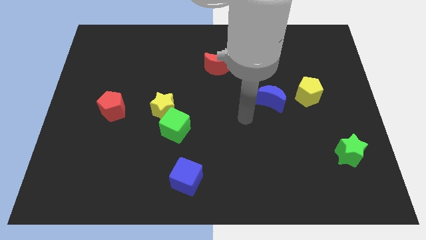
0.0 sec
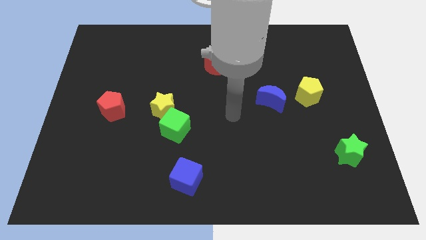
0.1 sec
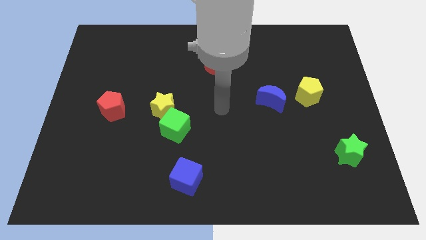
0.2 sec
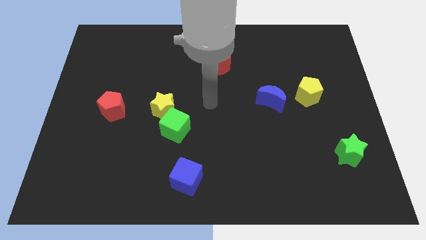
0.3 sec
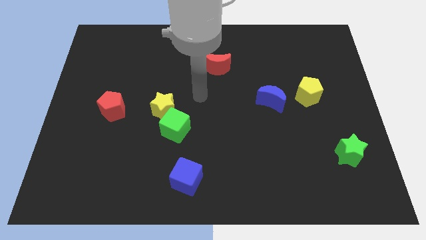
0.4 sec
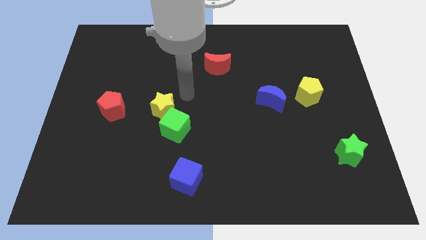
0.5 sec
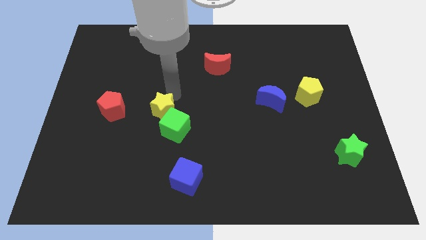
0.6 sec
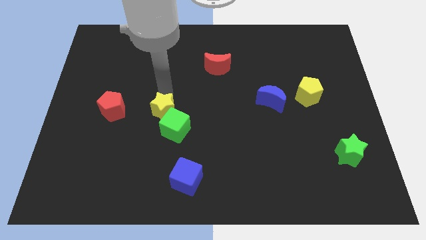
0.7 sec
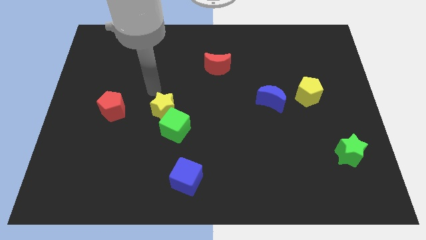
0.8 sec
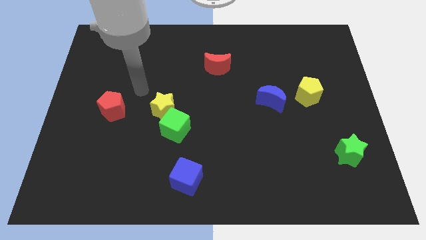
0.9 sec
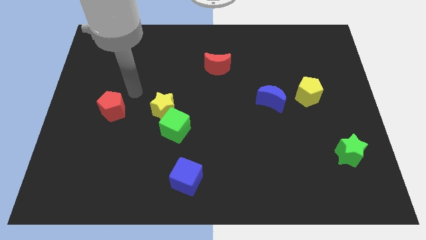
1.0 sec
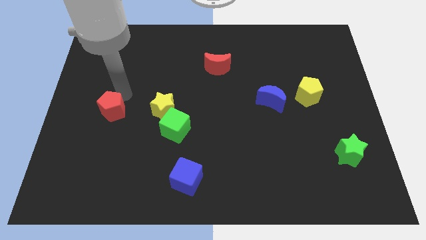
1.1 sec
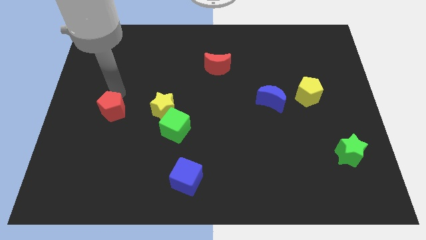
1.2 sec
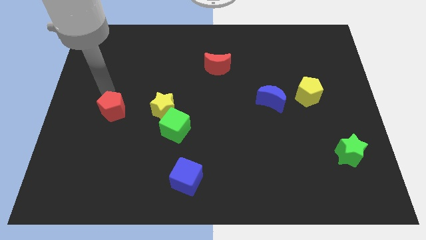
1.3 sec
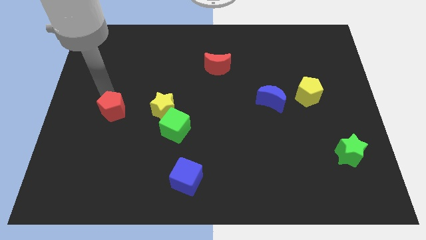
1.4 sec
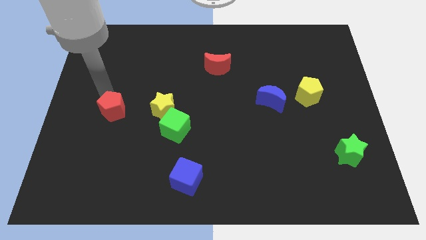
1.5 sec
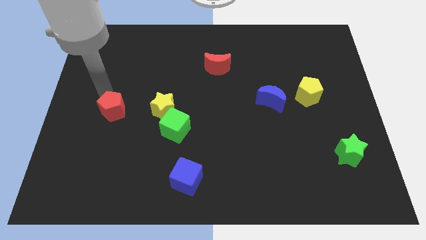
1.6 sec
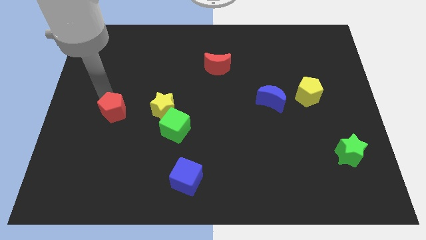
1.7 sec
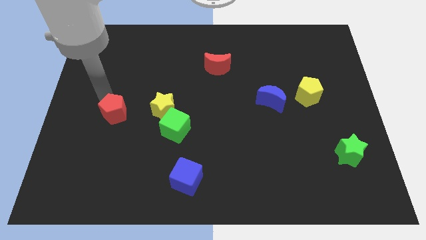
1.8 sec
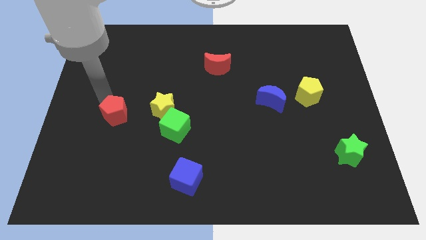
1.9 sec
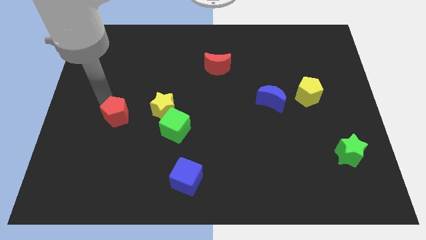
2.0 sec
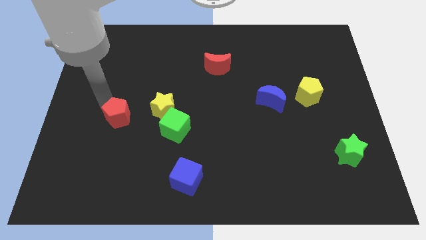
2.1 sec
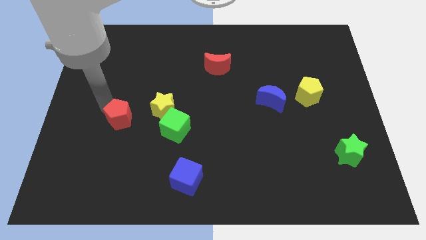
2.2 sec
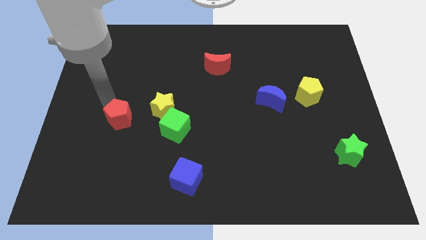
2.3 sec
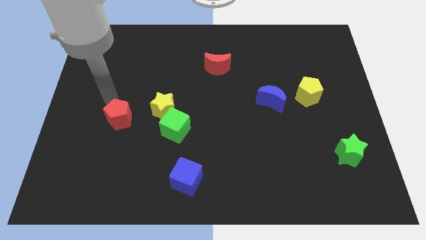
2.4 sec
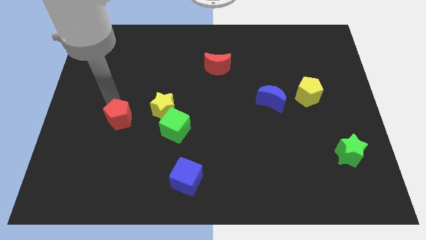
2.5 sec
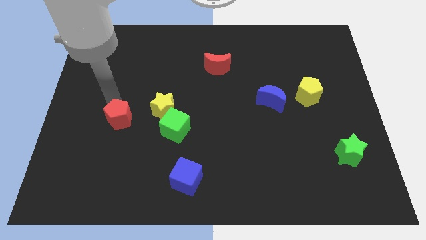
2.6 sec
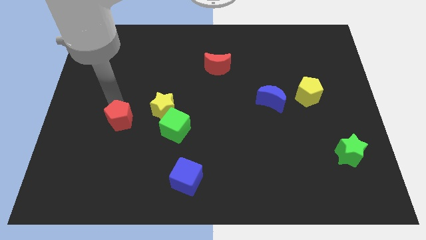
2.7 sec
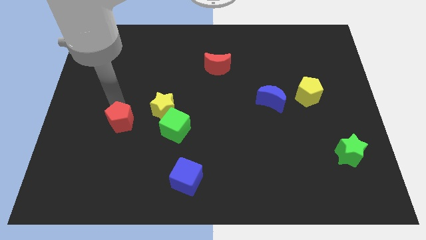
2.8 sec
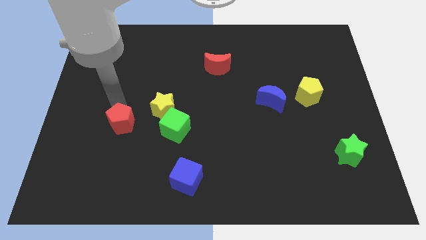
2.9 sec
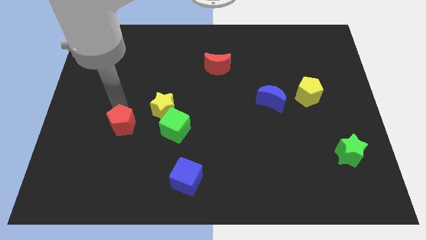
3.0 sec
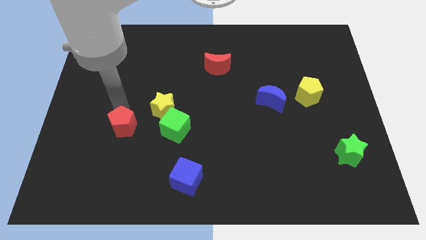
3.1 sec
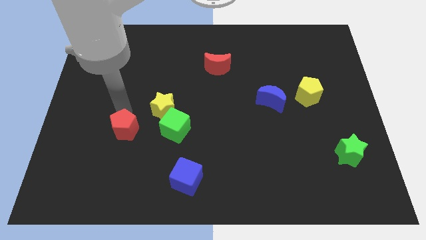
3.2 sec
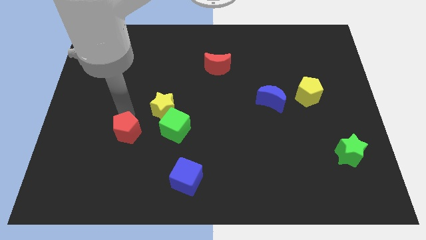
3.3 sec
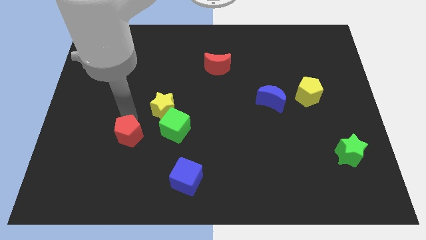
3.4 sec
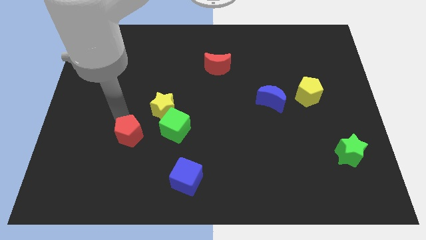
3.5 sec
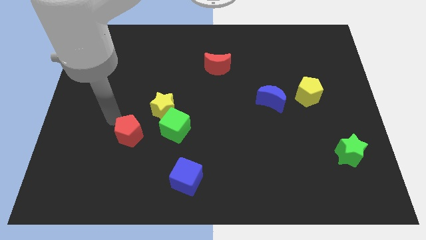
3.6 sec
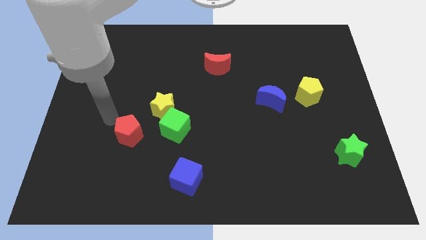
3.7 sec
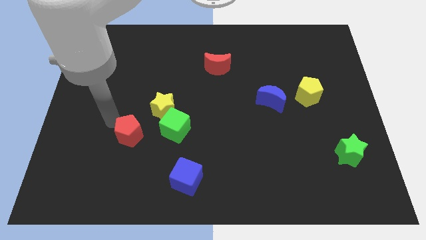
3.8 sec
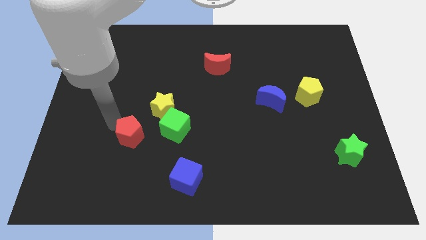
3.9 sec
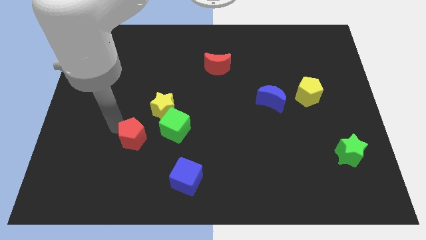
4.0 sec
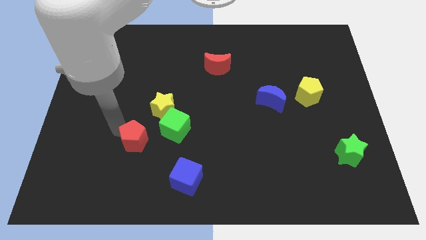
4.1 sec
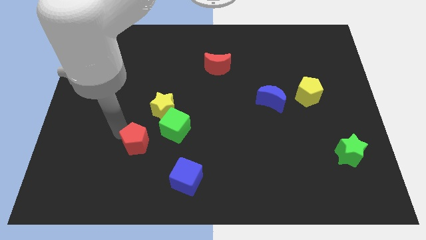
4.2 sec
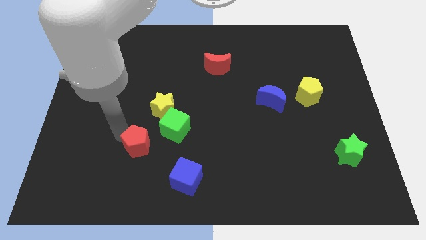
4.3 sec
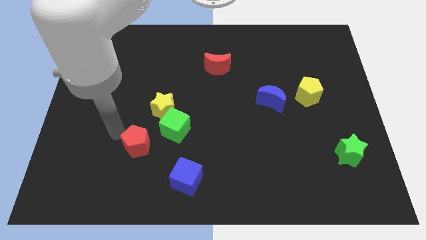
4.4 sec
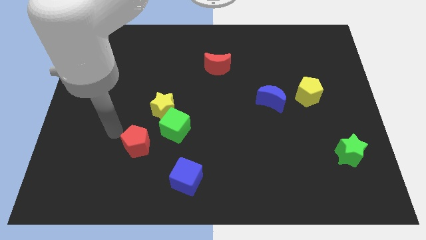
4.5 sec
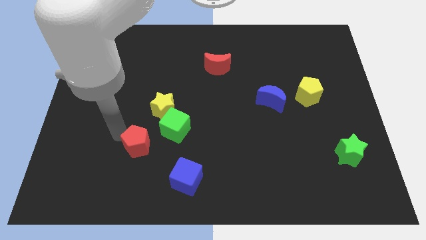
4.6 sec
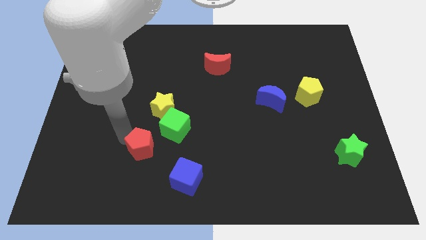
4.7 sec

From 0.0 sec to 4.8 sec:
move the red pentagon diagonally up and to the left of the blue cube

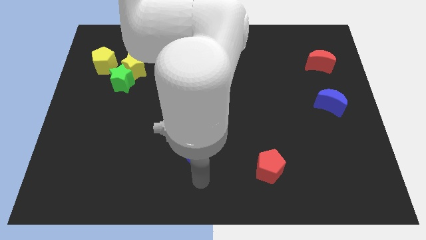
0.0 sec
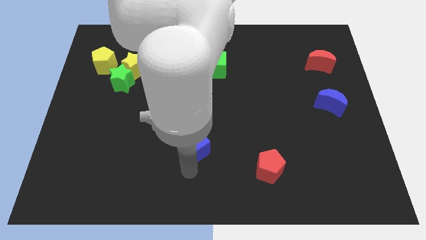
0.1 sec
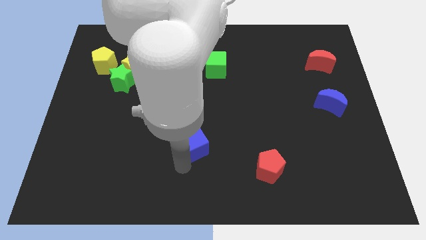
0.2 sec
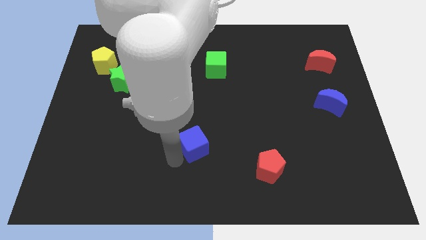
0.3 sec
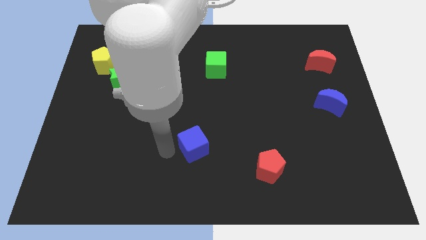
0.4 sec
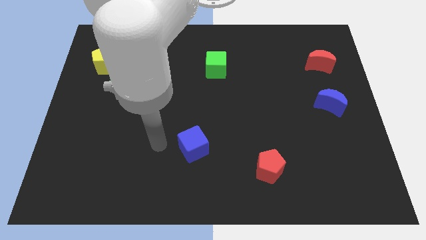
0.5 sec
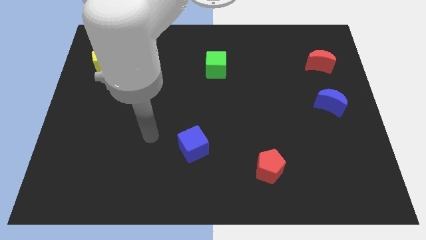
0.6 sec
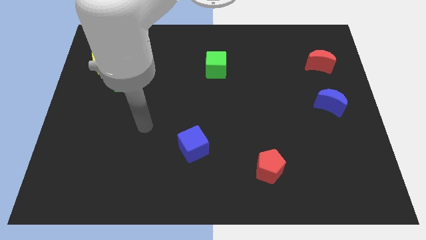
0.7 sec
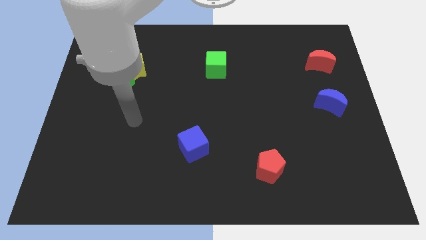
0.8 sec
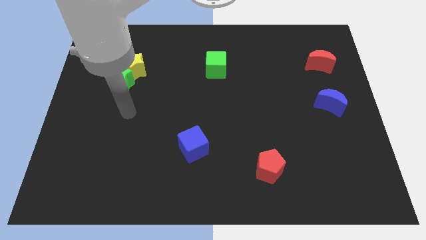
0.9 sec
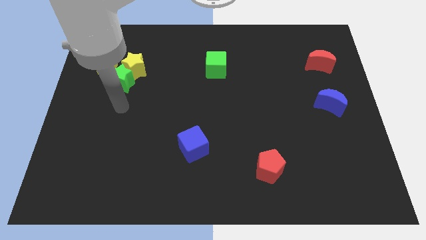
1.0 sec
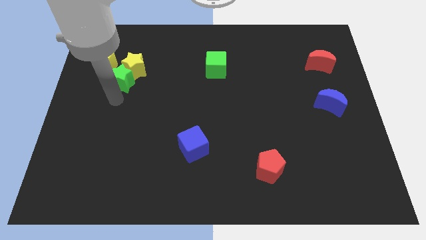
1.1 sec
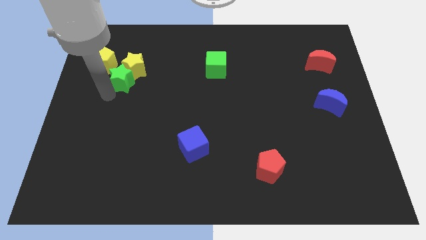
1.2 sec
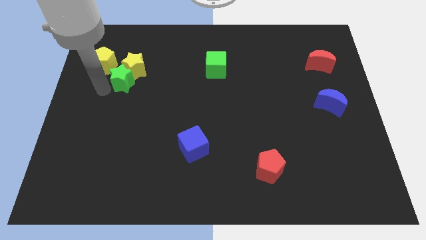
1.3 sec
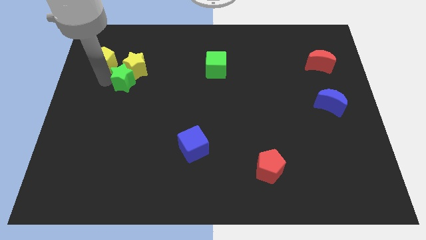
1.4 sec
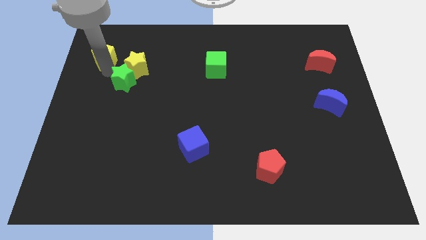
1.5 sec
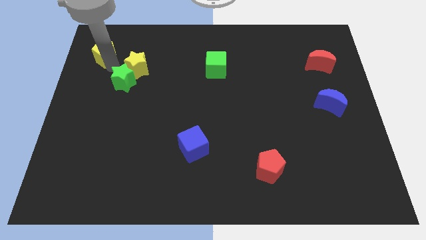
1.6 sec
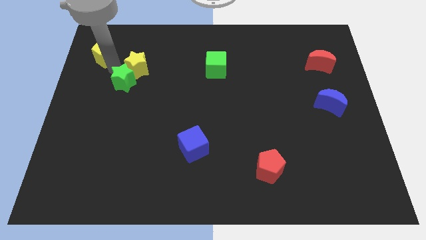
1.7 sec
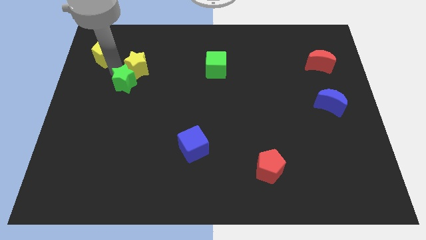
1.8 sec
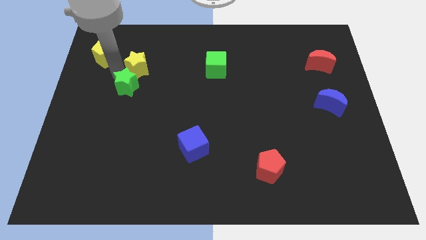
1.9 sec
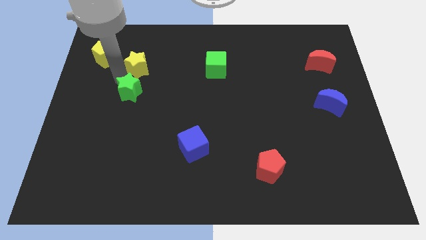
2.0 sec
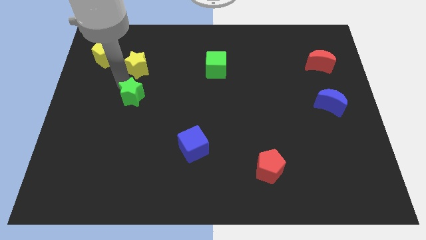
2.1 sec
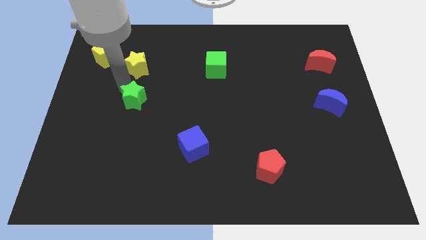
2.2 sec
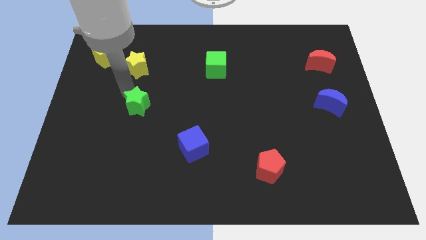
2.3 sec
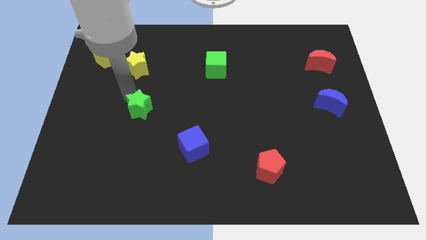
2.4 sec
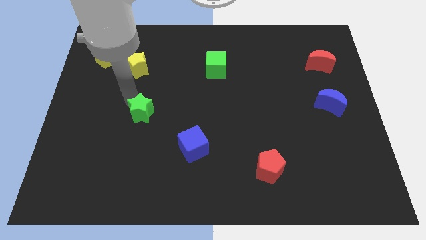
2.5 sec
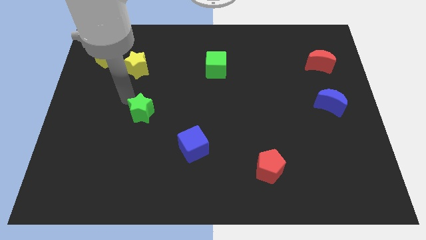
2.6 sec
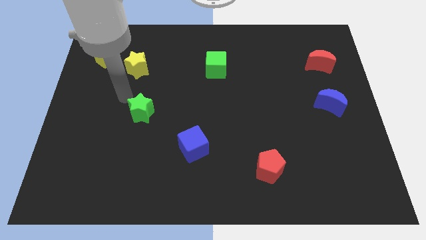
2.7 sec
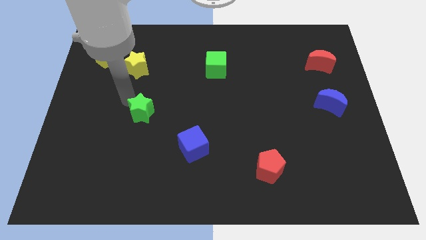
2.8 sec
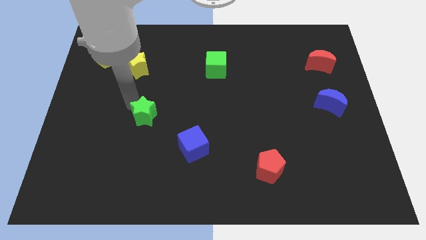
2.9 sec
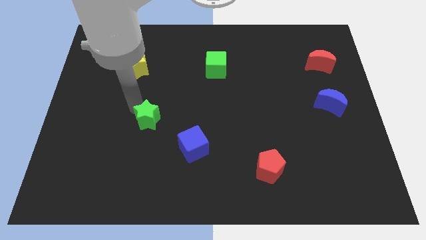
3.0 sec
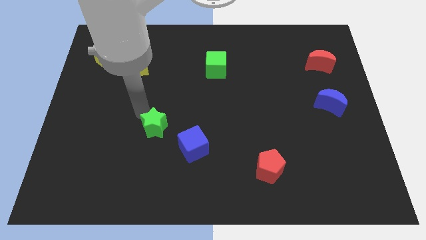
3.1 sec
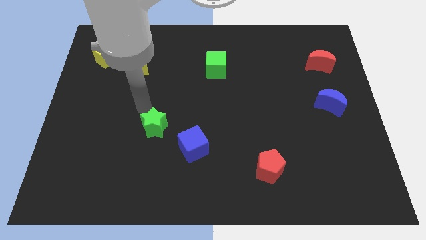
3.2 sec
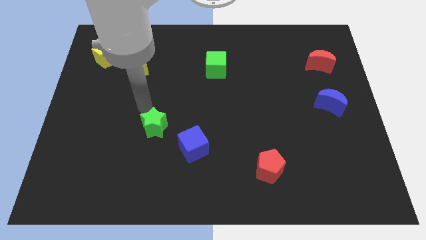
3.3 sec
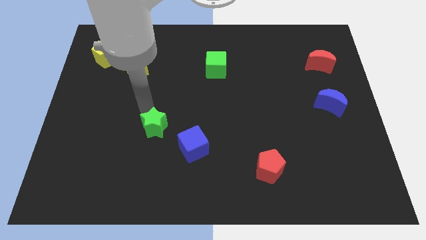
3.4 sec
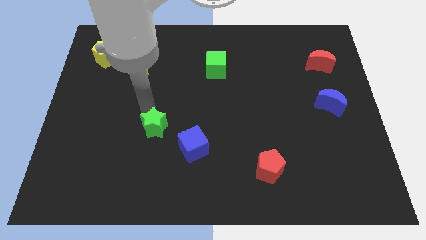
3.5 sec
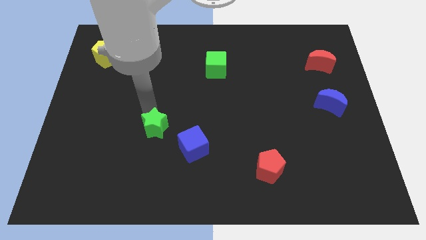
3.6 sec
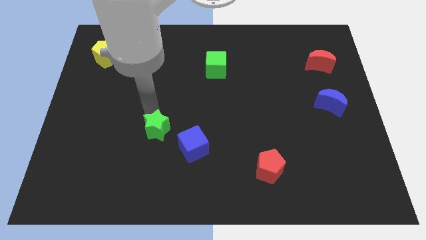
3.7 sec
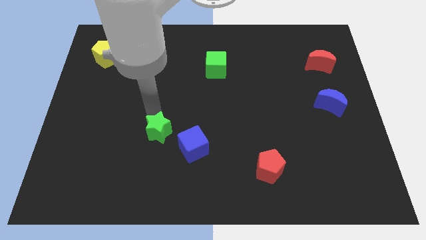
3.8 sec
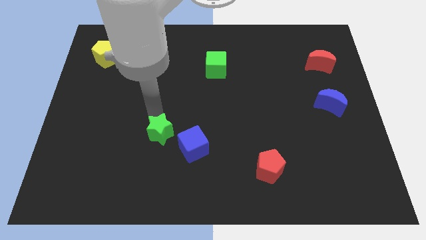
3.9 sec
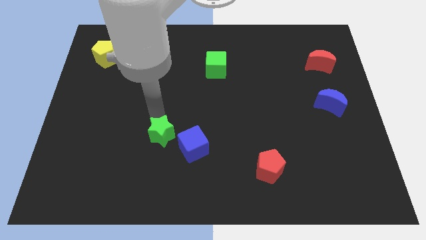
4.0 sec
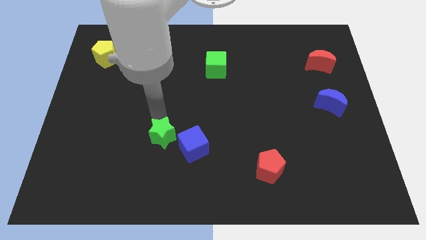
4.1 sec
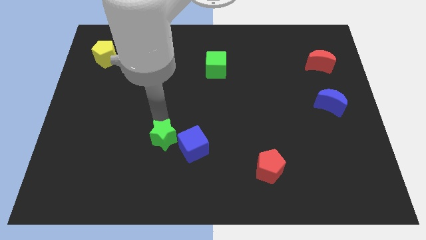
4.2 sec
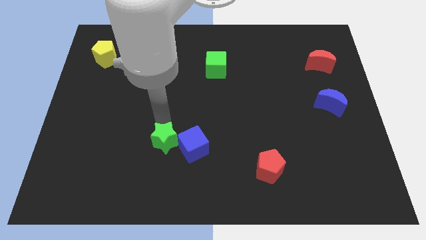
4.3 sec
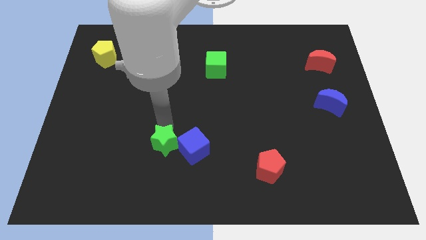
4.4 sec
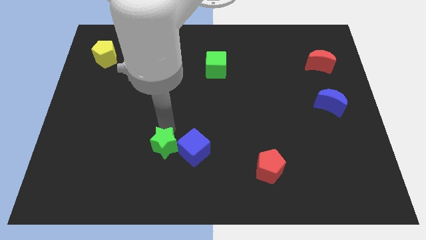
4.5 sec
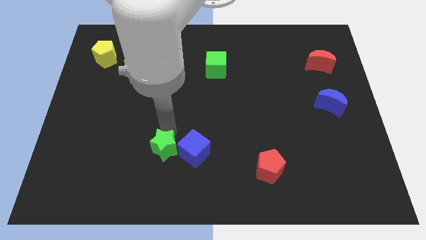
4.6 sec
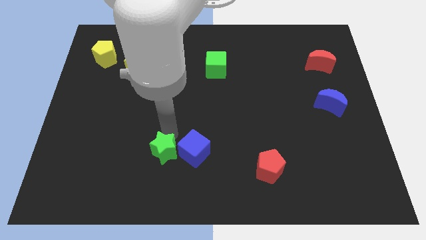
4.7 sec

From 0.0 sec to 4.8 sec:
slide the green star diagonally down and to the left of the blue cube
